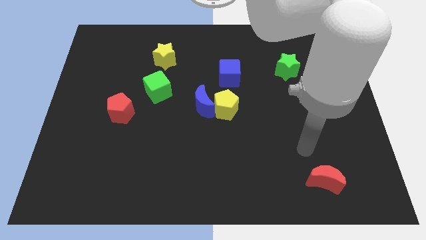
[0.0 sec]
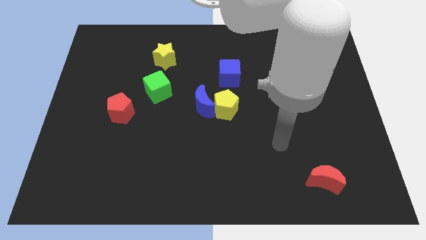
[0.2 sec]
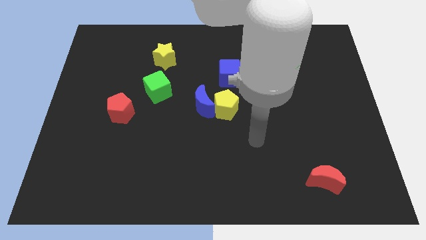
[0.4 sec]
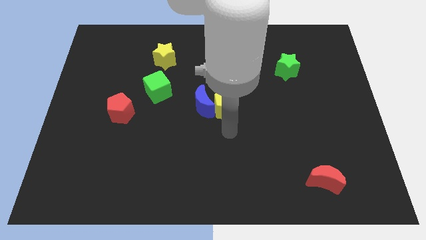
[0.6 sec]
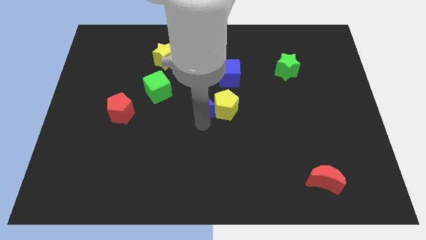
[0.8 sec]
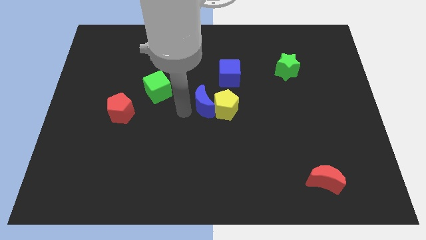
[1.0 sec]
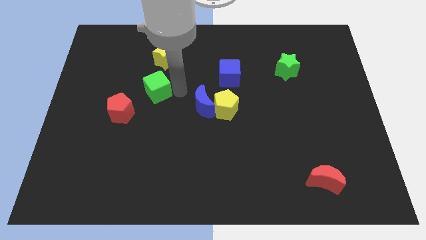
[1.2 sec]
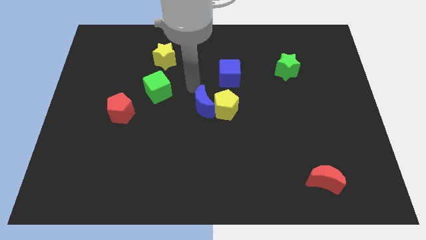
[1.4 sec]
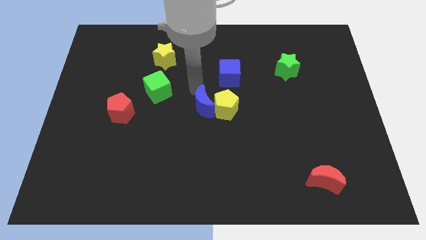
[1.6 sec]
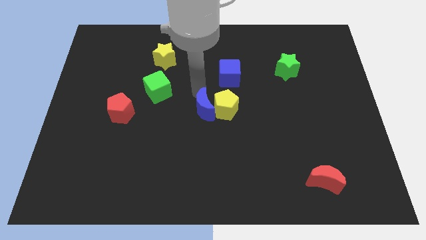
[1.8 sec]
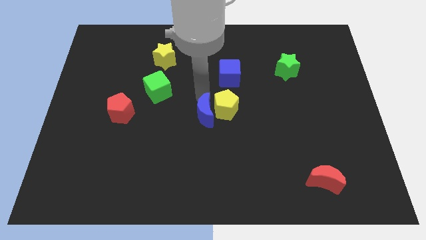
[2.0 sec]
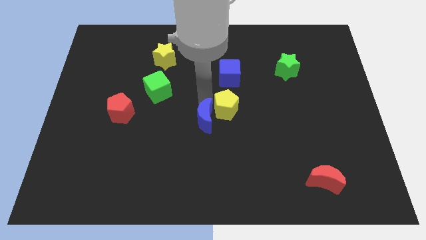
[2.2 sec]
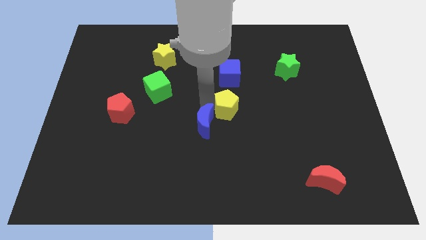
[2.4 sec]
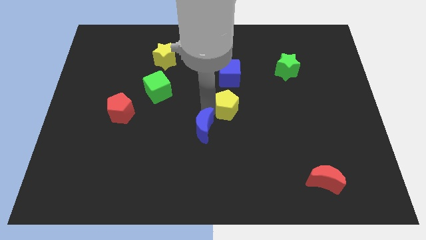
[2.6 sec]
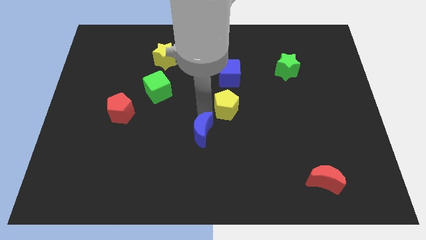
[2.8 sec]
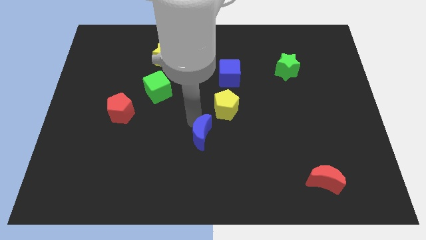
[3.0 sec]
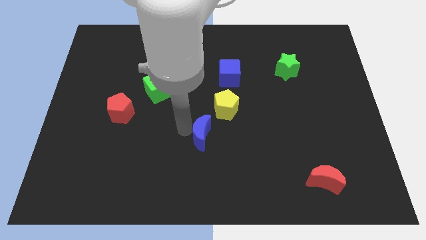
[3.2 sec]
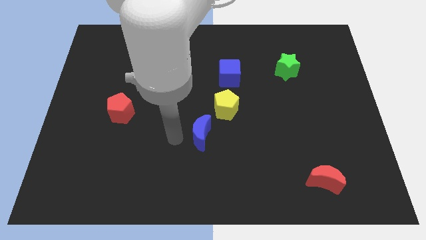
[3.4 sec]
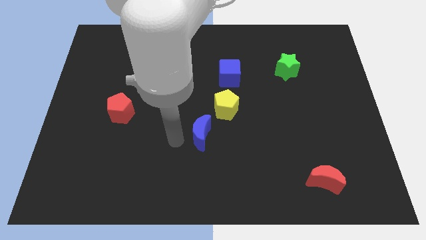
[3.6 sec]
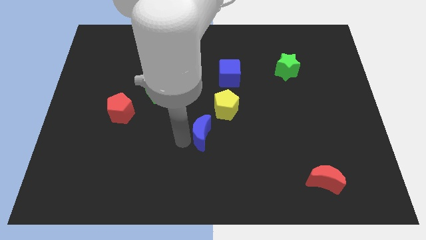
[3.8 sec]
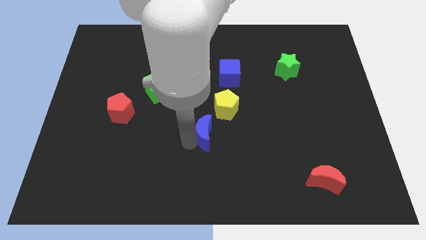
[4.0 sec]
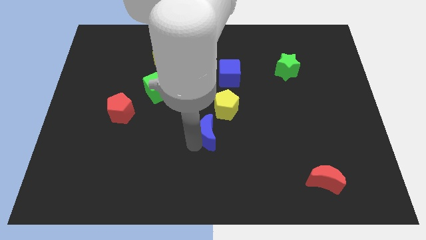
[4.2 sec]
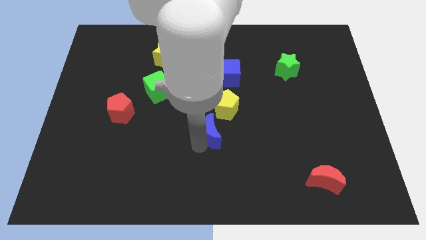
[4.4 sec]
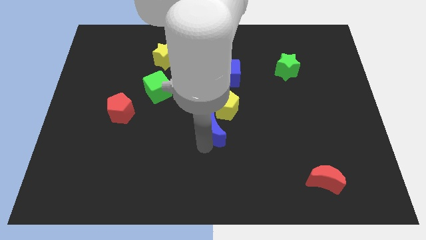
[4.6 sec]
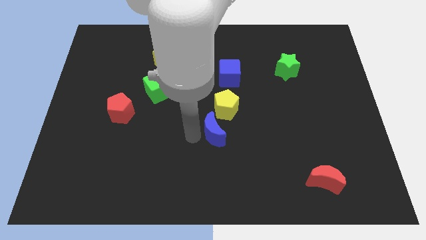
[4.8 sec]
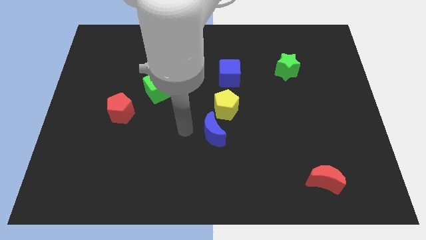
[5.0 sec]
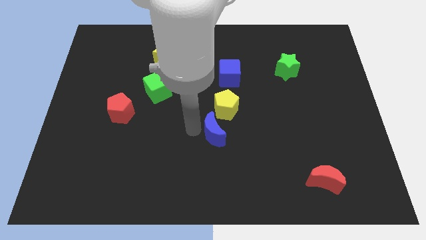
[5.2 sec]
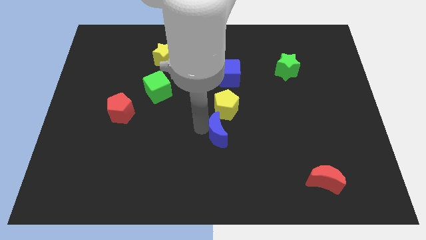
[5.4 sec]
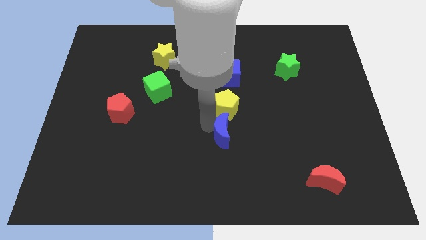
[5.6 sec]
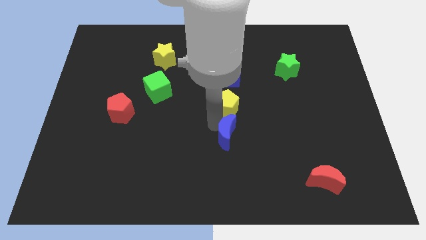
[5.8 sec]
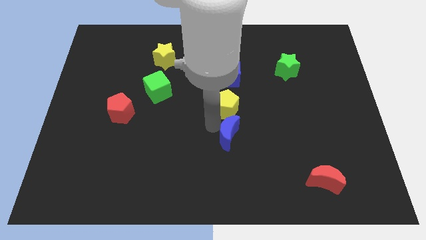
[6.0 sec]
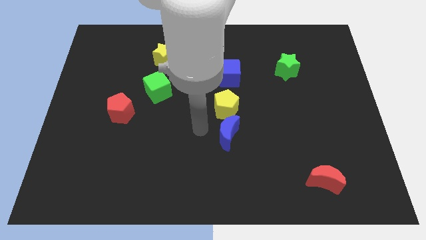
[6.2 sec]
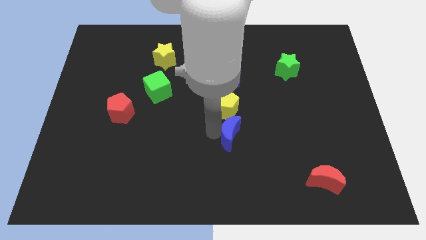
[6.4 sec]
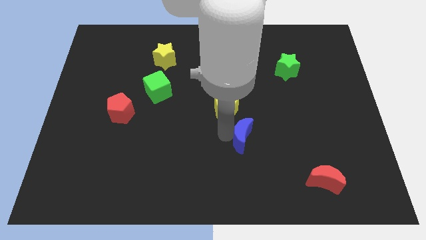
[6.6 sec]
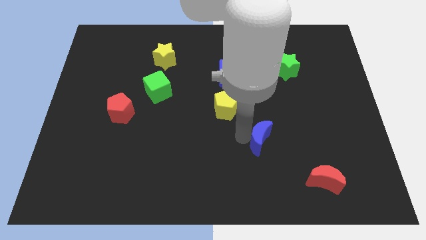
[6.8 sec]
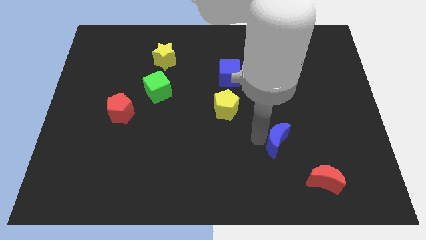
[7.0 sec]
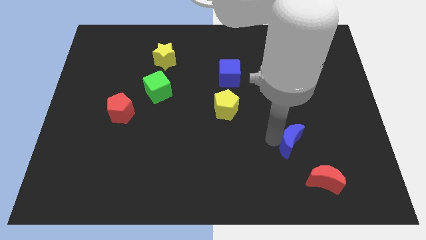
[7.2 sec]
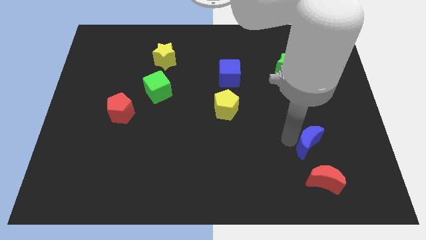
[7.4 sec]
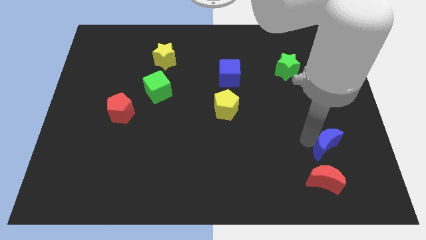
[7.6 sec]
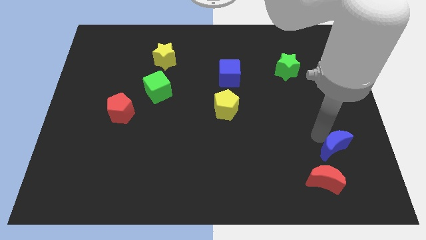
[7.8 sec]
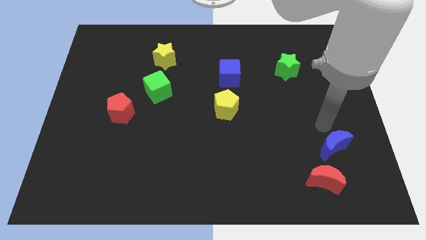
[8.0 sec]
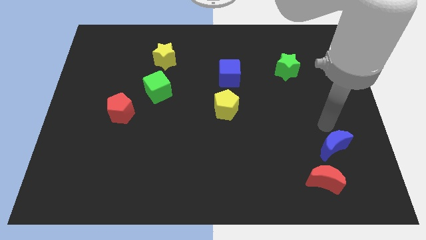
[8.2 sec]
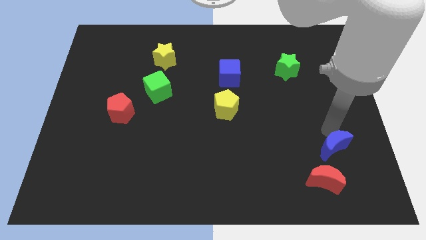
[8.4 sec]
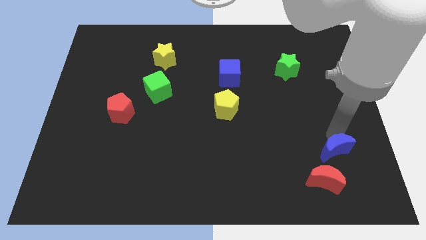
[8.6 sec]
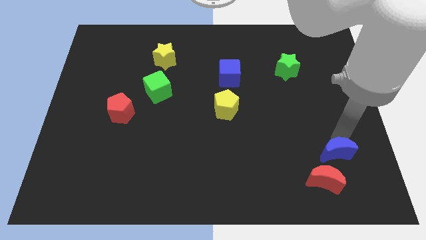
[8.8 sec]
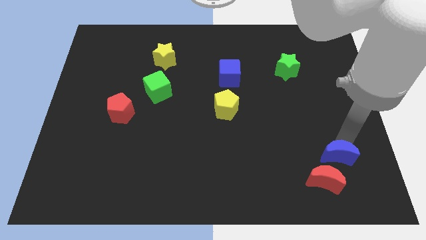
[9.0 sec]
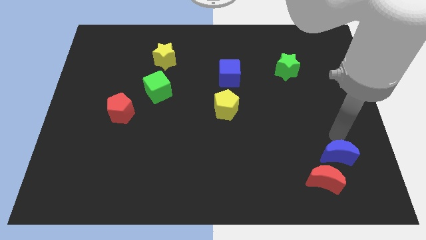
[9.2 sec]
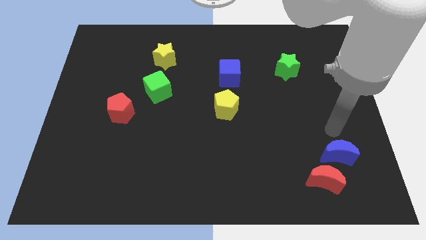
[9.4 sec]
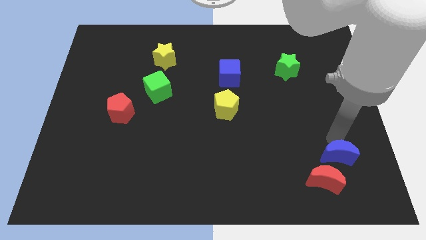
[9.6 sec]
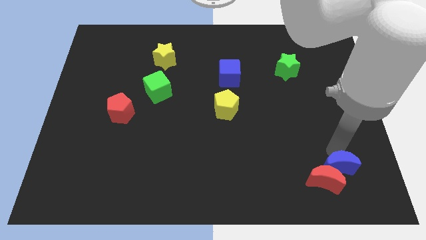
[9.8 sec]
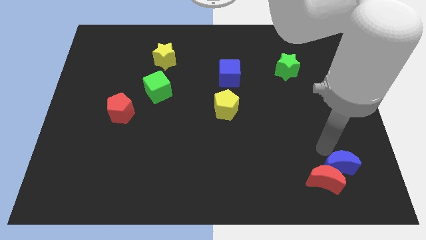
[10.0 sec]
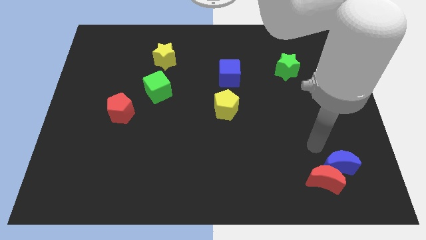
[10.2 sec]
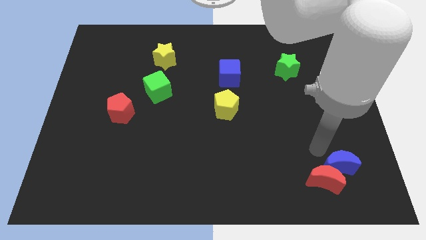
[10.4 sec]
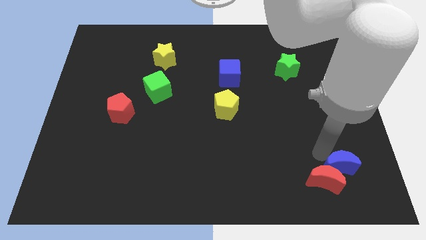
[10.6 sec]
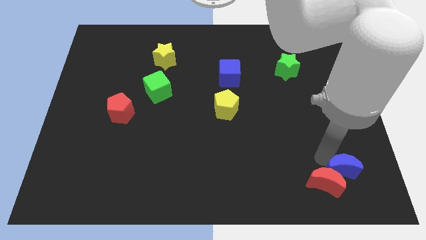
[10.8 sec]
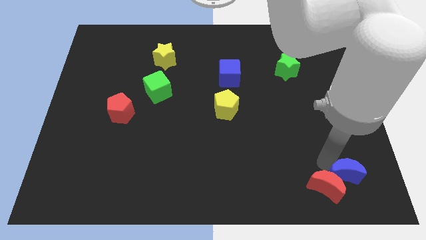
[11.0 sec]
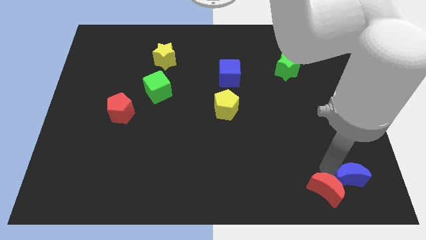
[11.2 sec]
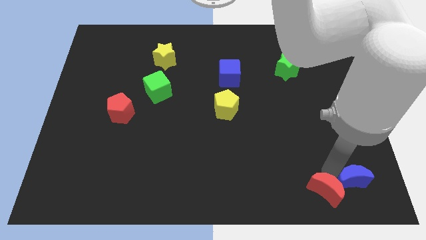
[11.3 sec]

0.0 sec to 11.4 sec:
push the blue moon to the bottom right of the board

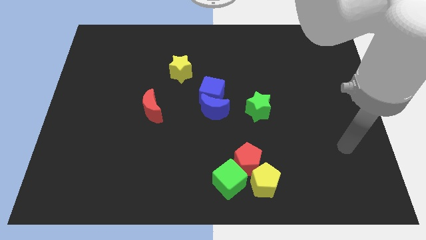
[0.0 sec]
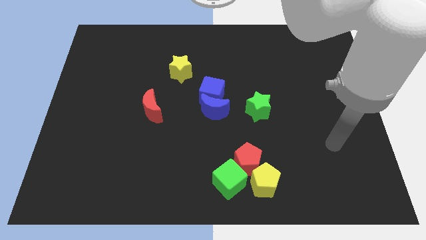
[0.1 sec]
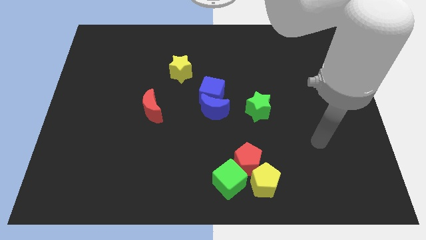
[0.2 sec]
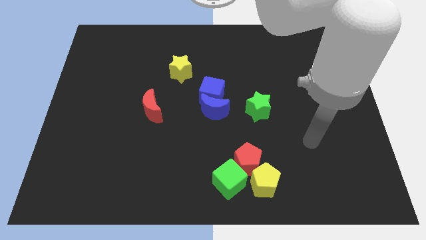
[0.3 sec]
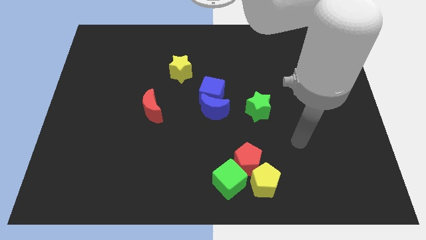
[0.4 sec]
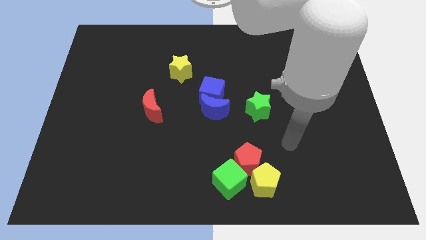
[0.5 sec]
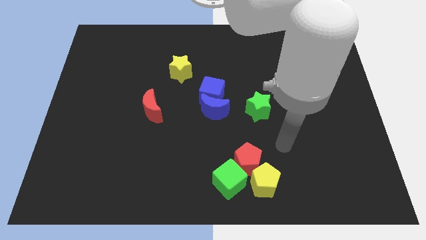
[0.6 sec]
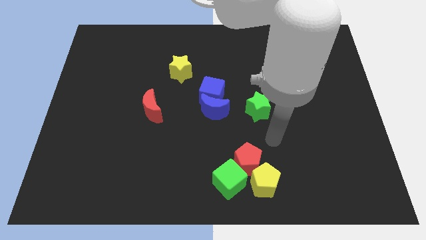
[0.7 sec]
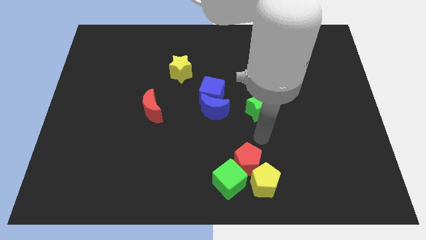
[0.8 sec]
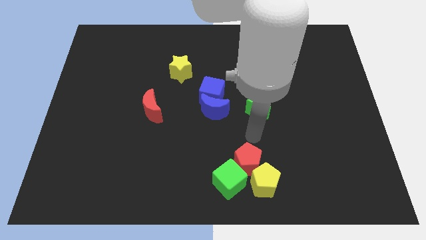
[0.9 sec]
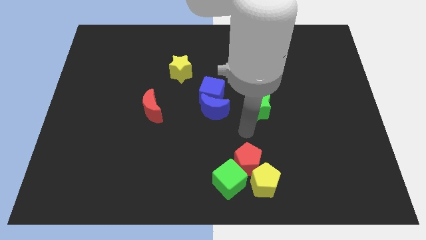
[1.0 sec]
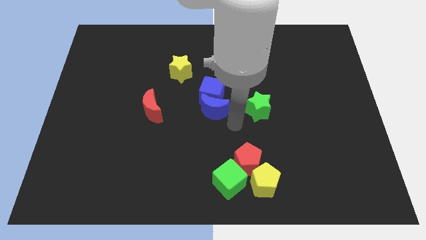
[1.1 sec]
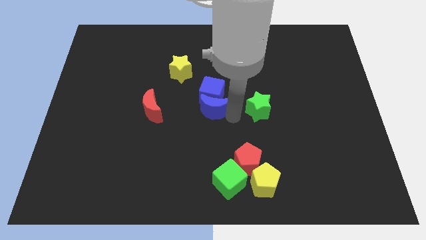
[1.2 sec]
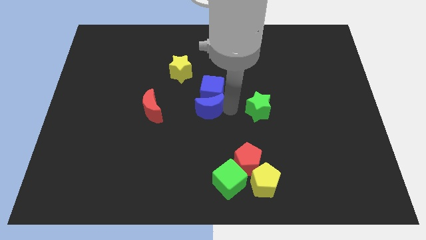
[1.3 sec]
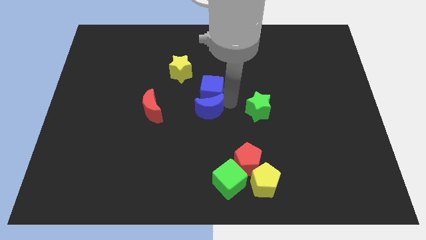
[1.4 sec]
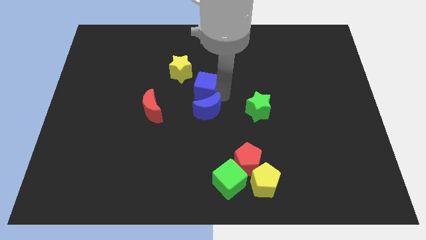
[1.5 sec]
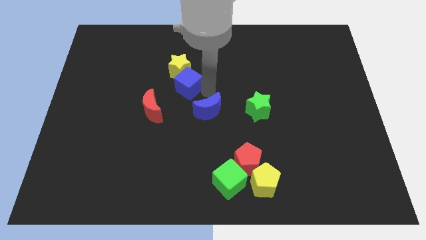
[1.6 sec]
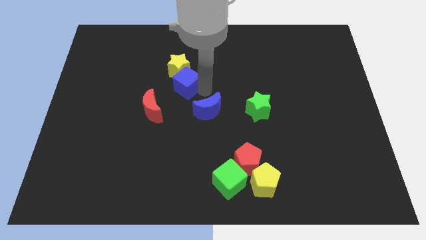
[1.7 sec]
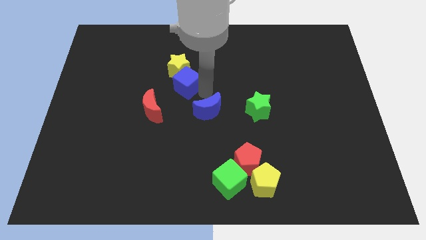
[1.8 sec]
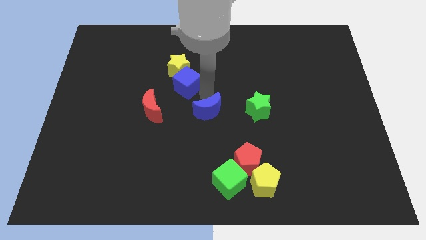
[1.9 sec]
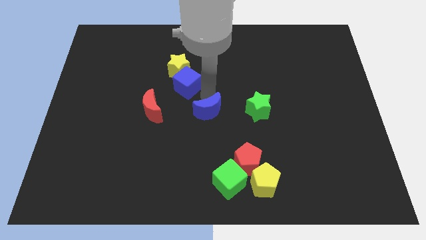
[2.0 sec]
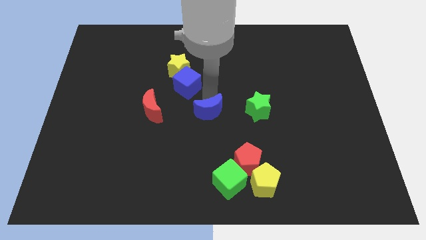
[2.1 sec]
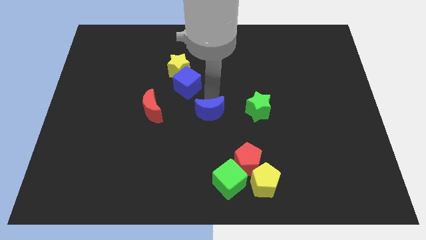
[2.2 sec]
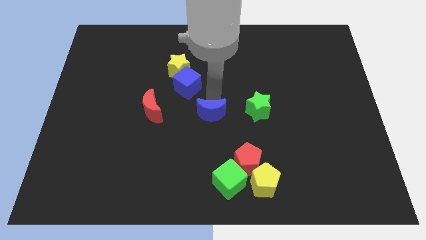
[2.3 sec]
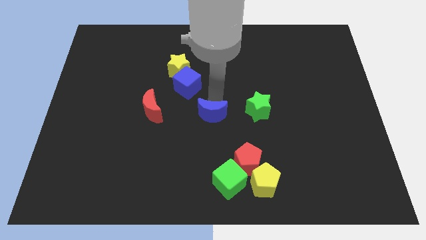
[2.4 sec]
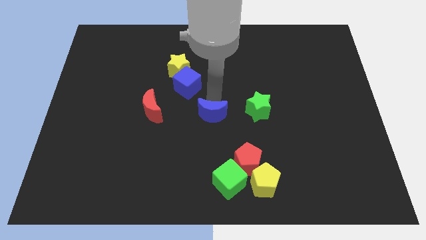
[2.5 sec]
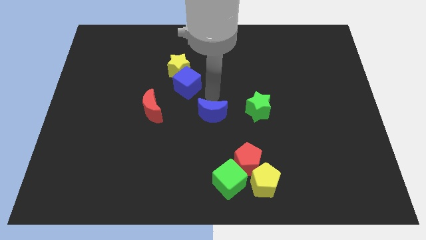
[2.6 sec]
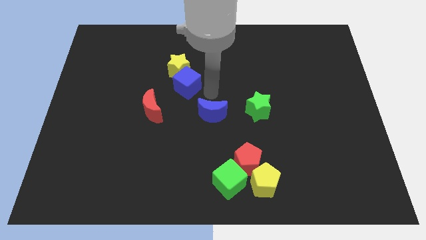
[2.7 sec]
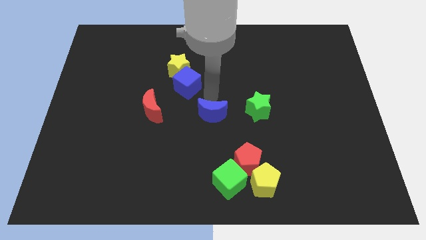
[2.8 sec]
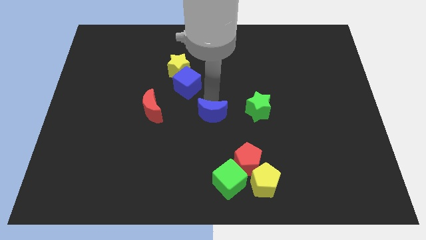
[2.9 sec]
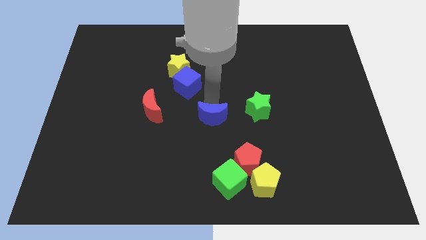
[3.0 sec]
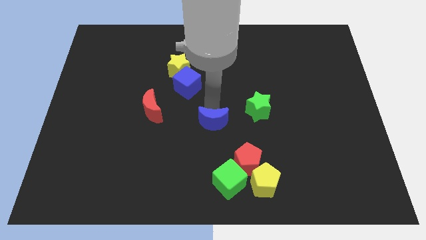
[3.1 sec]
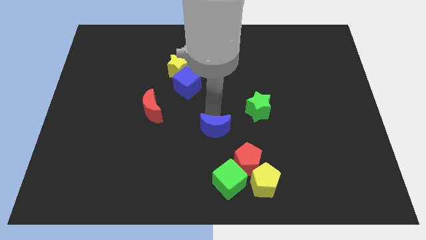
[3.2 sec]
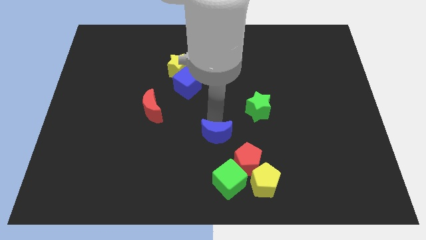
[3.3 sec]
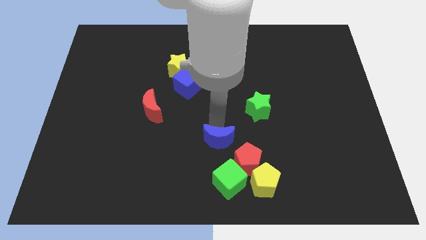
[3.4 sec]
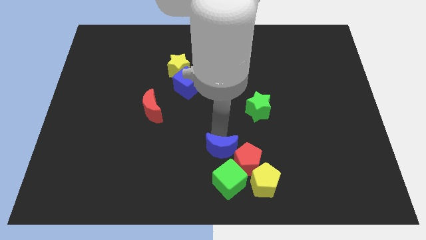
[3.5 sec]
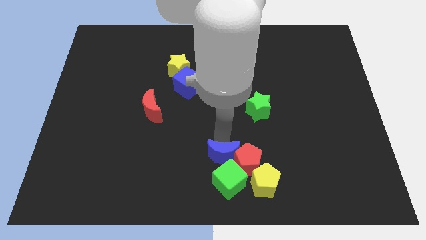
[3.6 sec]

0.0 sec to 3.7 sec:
move the blue moon to the bottom
